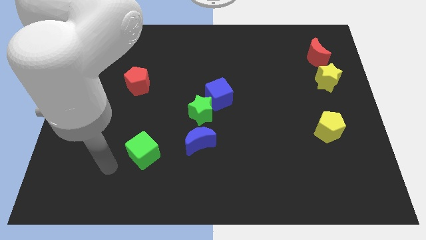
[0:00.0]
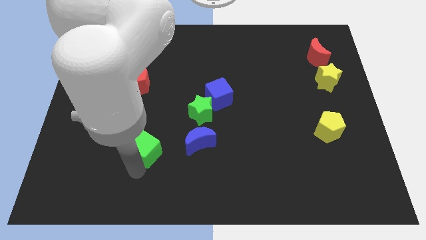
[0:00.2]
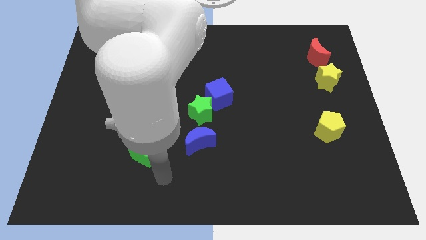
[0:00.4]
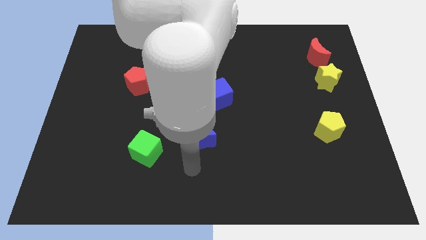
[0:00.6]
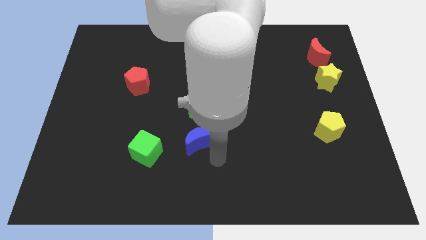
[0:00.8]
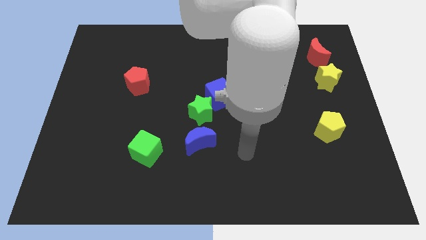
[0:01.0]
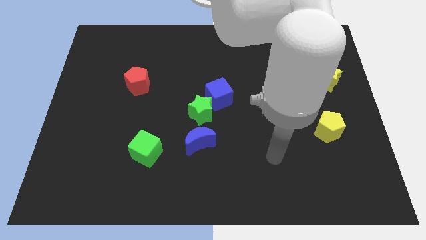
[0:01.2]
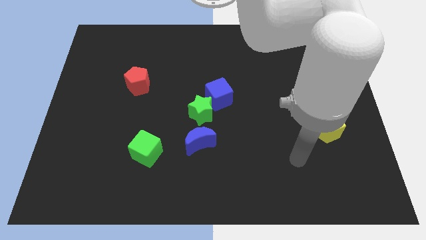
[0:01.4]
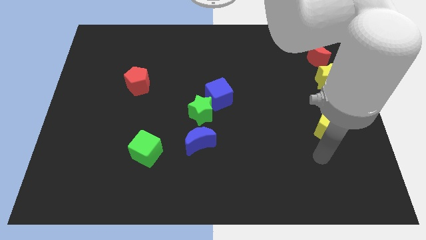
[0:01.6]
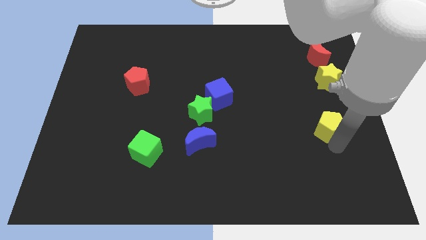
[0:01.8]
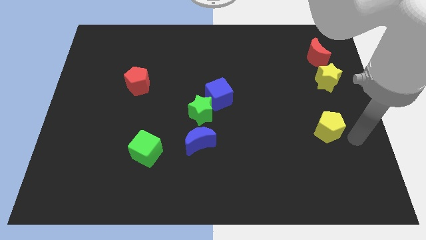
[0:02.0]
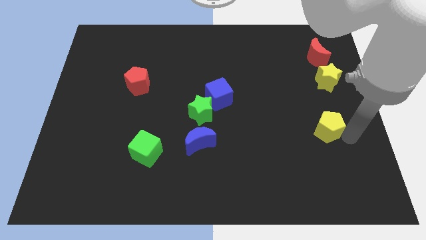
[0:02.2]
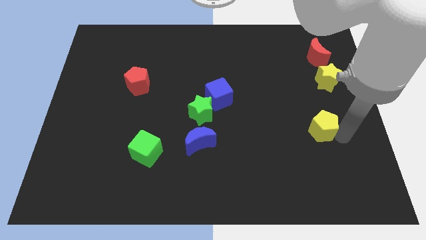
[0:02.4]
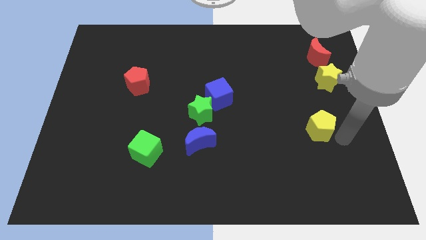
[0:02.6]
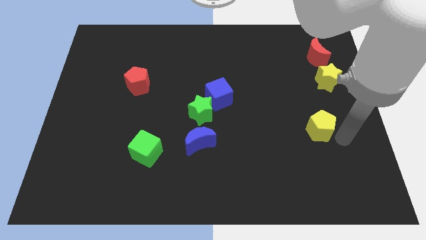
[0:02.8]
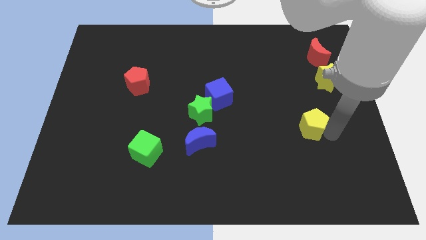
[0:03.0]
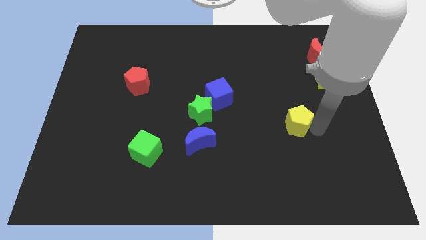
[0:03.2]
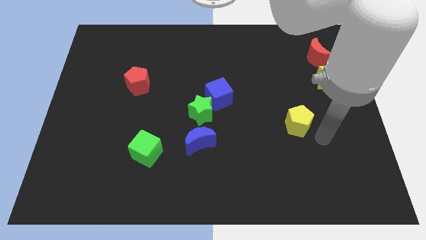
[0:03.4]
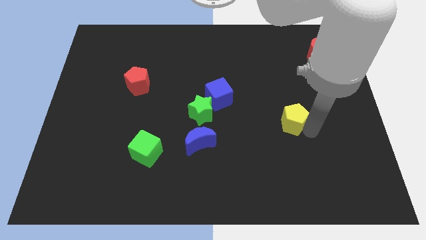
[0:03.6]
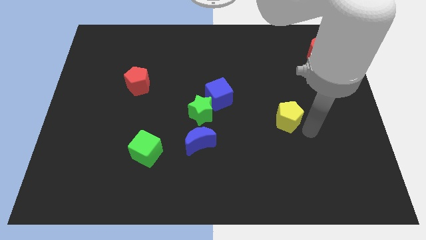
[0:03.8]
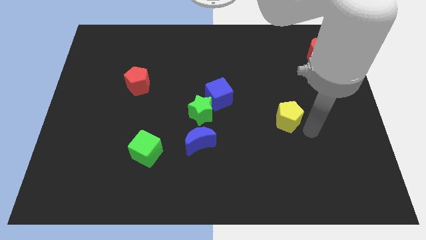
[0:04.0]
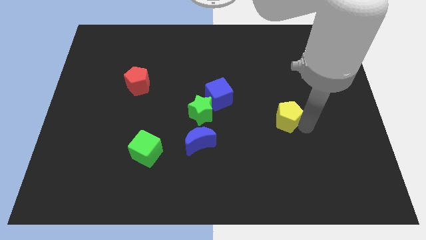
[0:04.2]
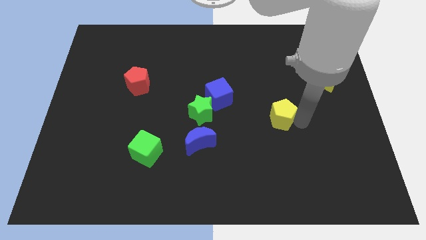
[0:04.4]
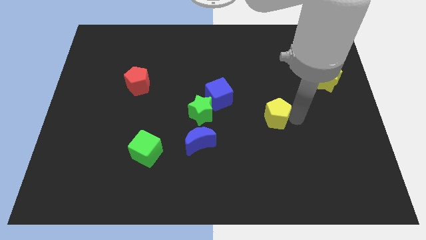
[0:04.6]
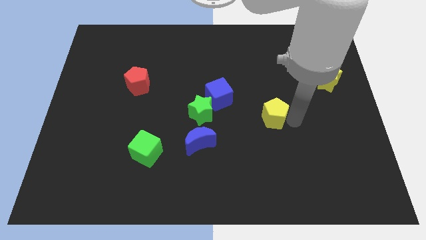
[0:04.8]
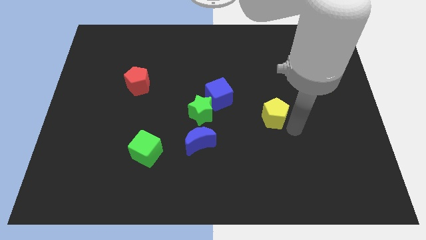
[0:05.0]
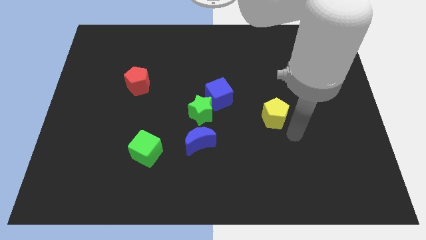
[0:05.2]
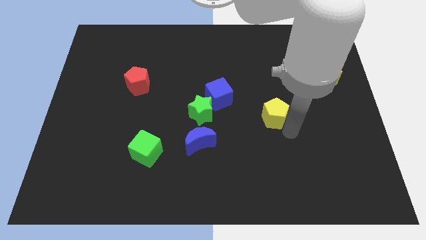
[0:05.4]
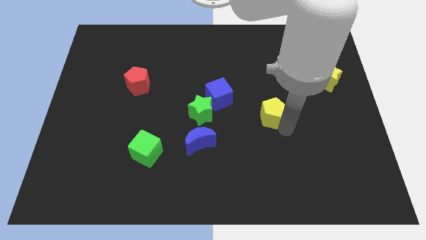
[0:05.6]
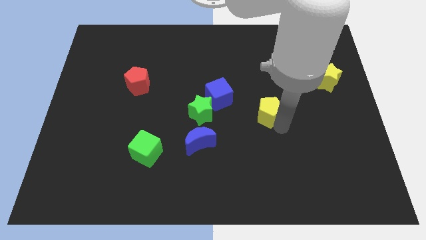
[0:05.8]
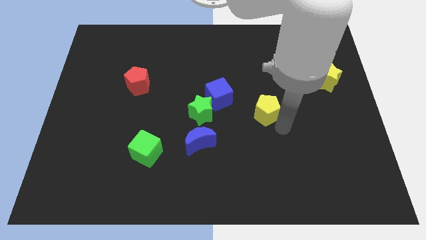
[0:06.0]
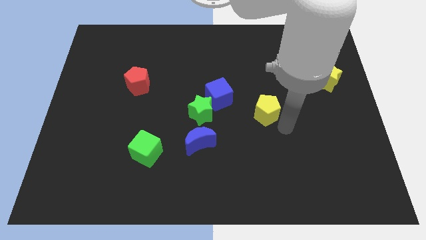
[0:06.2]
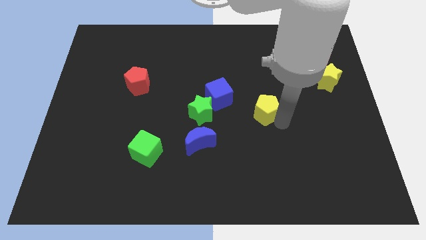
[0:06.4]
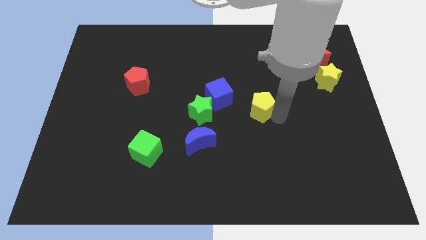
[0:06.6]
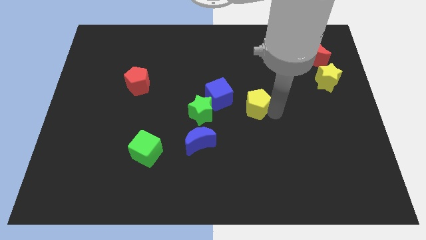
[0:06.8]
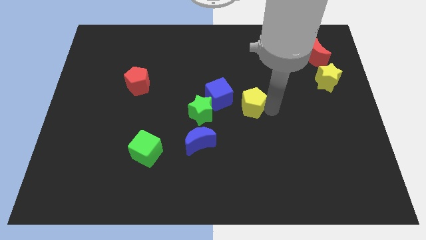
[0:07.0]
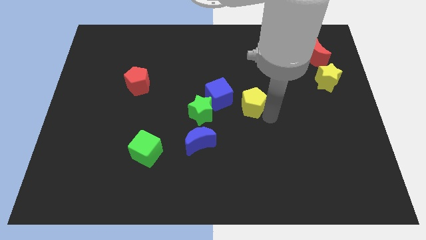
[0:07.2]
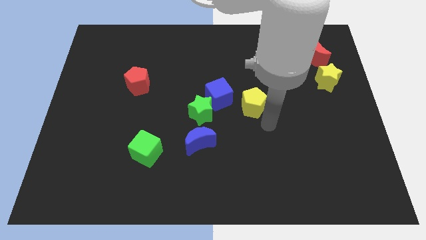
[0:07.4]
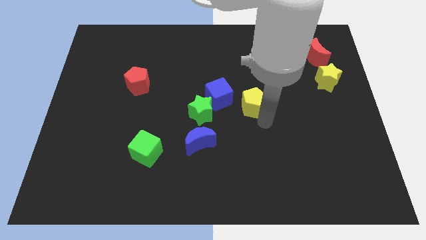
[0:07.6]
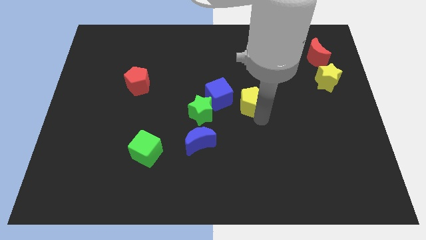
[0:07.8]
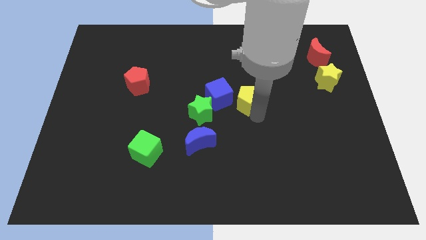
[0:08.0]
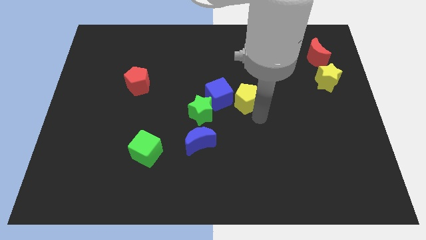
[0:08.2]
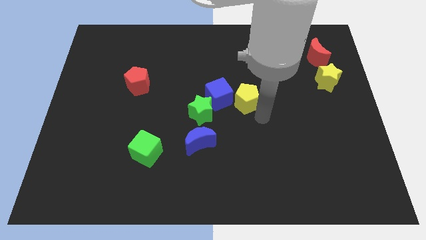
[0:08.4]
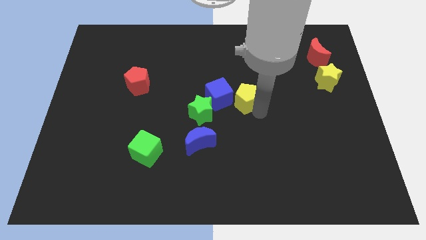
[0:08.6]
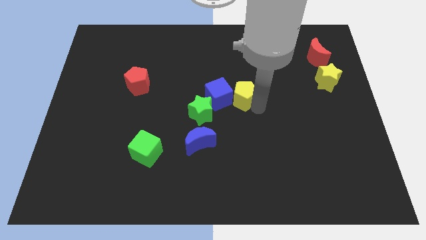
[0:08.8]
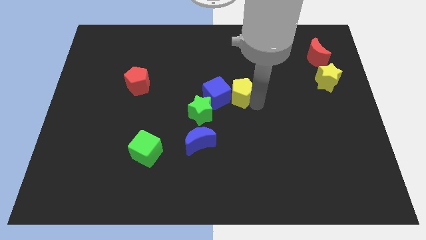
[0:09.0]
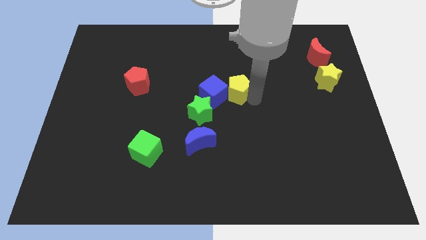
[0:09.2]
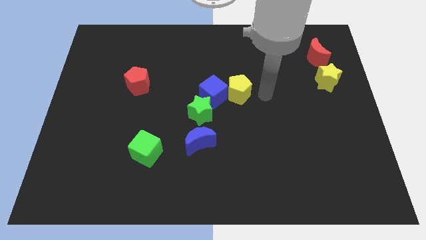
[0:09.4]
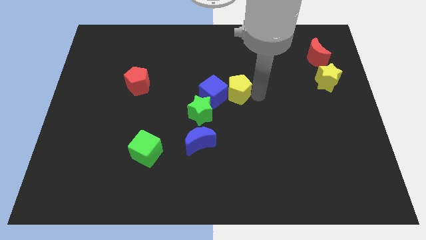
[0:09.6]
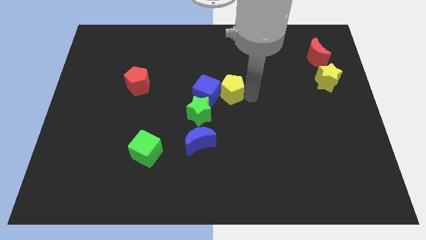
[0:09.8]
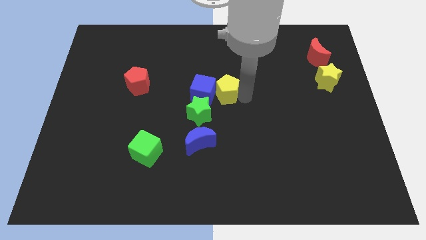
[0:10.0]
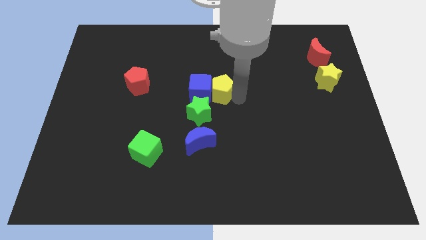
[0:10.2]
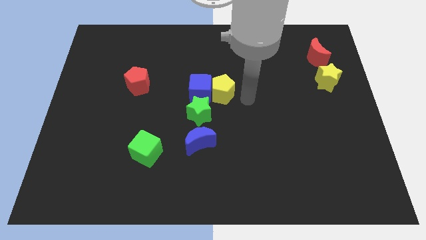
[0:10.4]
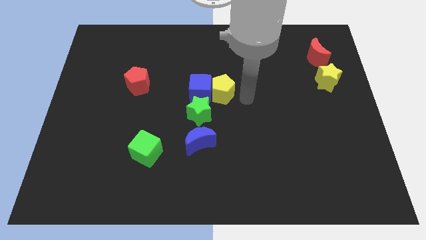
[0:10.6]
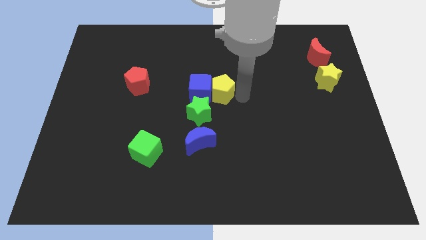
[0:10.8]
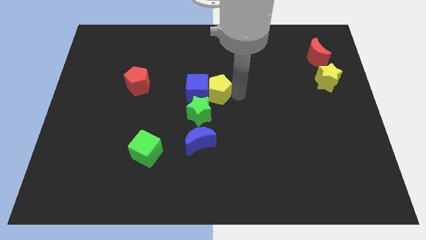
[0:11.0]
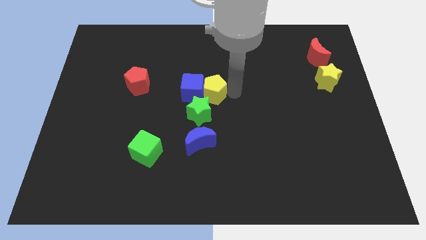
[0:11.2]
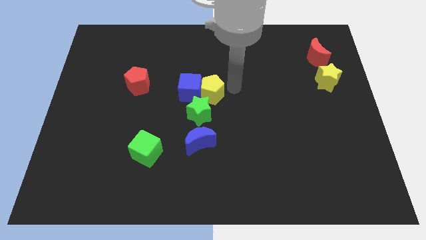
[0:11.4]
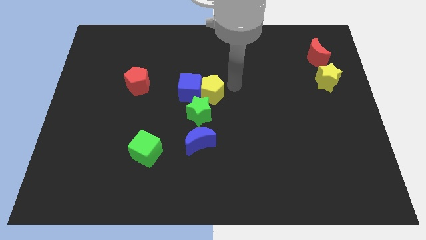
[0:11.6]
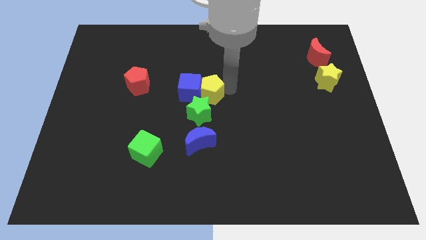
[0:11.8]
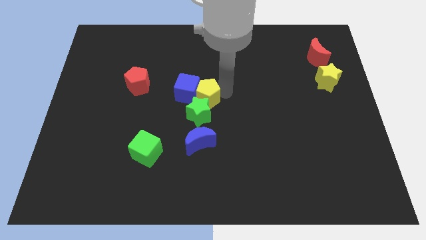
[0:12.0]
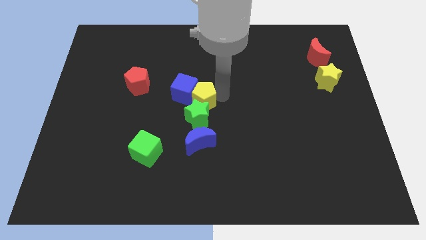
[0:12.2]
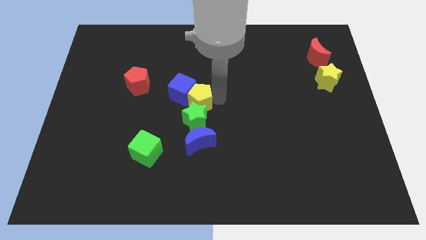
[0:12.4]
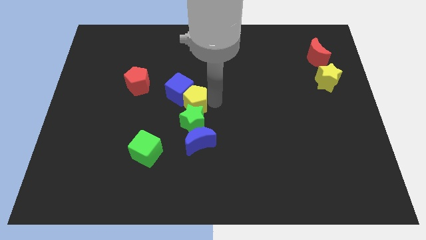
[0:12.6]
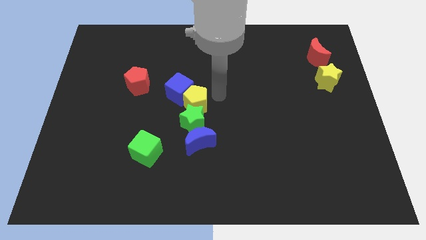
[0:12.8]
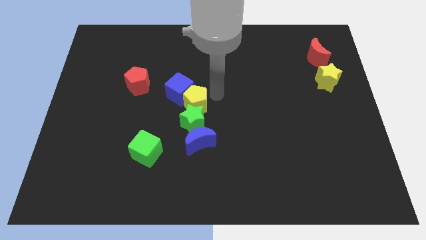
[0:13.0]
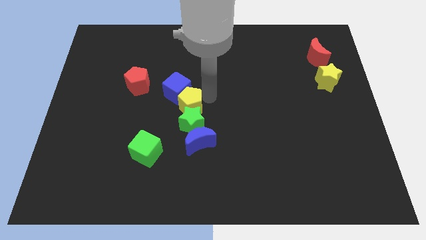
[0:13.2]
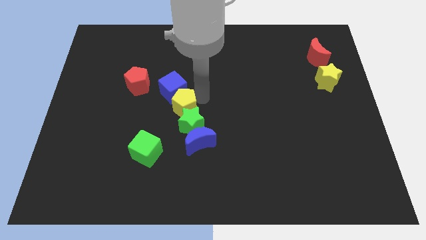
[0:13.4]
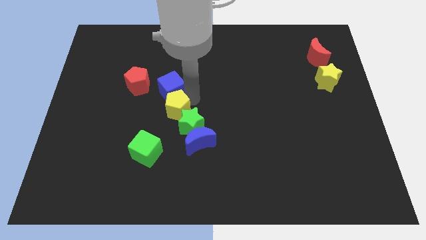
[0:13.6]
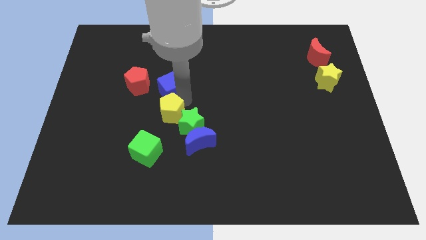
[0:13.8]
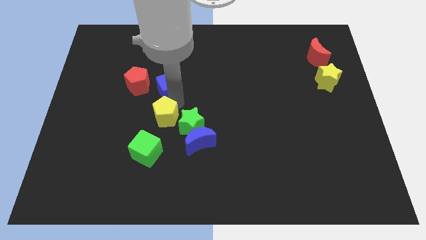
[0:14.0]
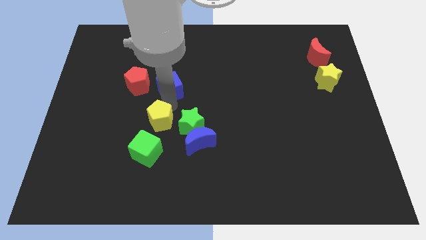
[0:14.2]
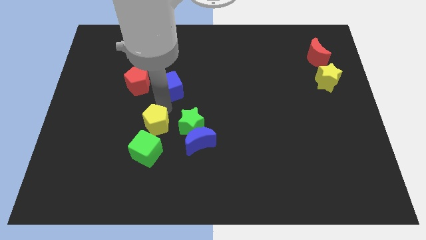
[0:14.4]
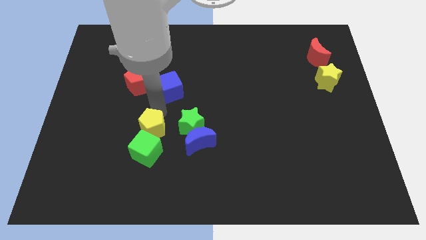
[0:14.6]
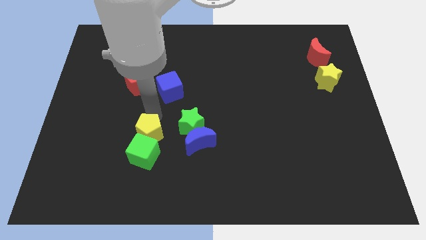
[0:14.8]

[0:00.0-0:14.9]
move the yellow pentagon to the bottom left side of the green star

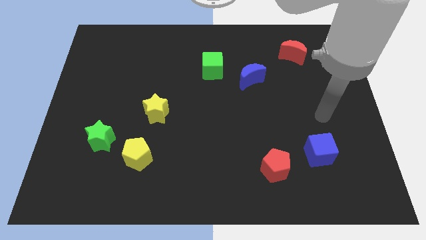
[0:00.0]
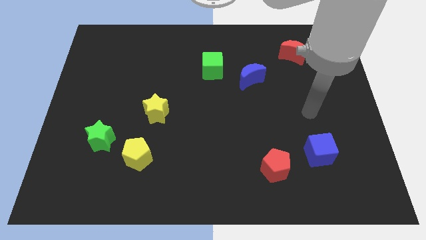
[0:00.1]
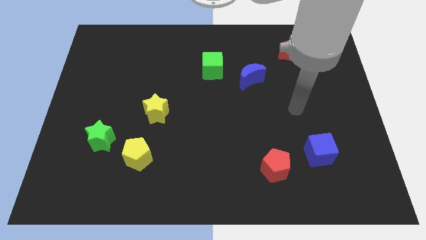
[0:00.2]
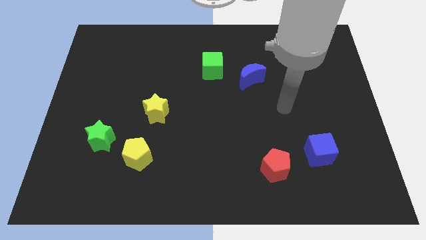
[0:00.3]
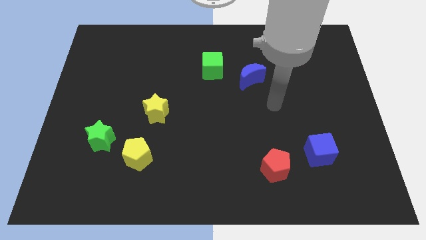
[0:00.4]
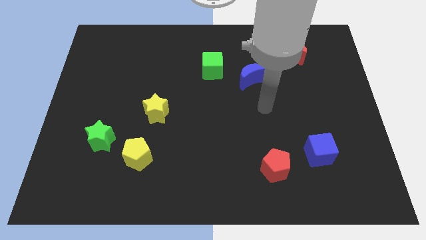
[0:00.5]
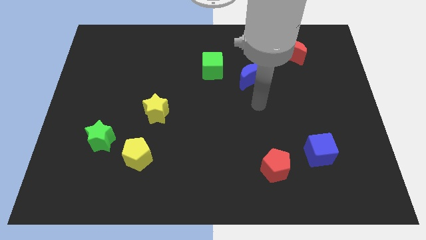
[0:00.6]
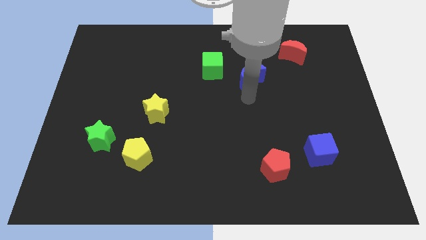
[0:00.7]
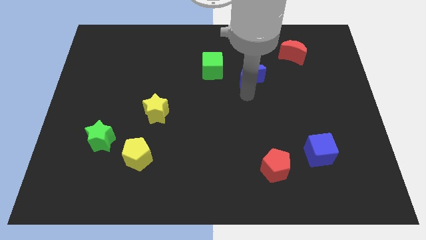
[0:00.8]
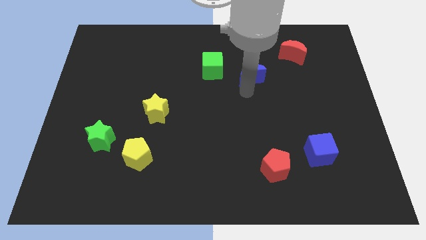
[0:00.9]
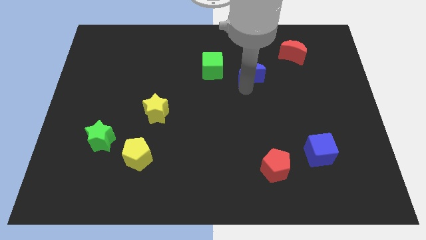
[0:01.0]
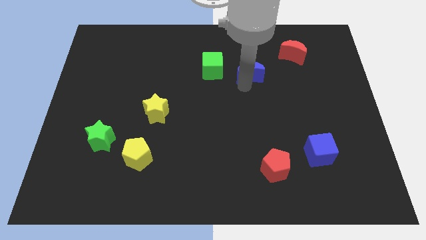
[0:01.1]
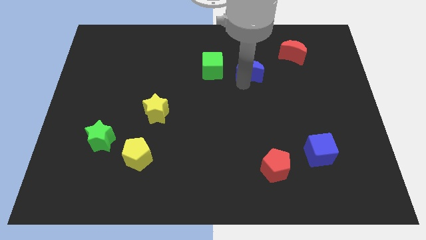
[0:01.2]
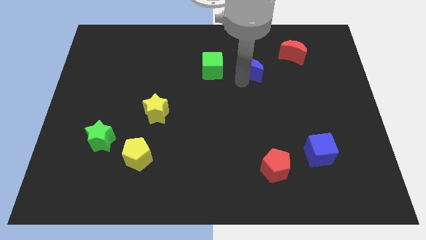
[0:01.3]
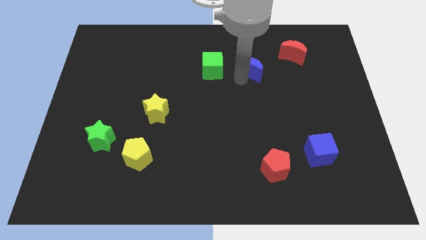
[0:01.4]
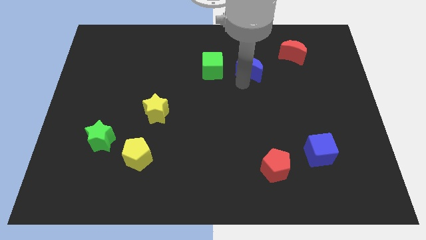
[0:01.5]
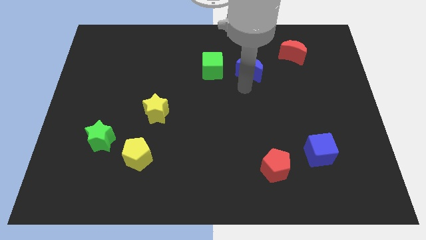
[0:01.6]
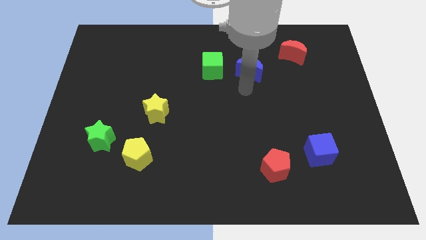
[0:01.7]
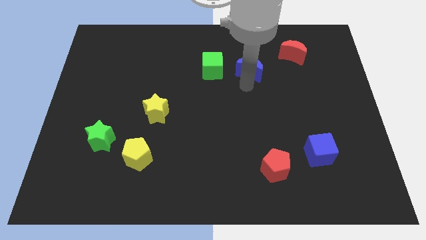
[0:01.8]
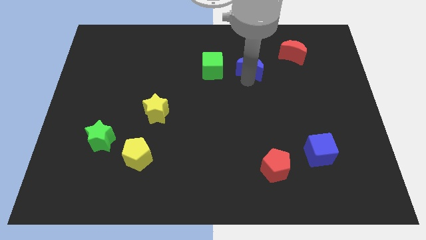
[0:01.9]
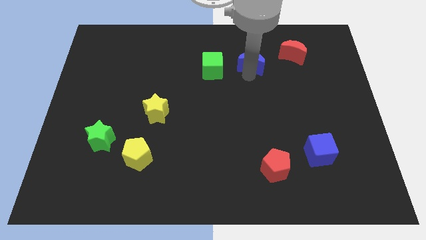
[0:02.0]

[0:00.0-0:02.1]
slide the blue moon to the left of the red moon
